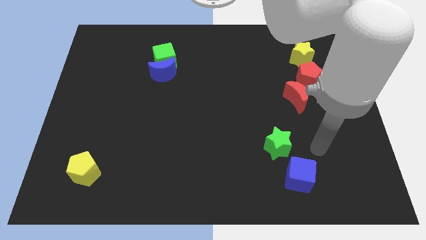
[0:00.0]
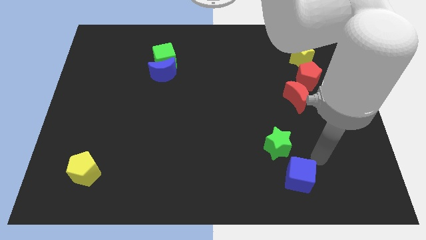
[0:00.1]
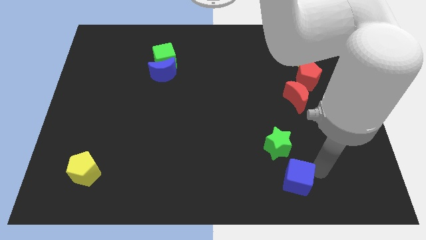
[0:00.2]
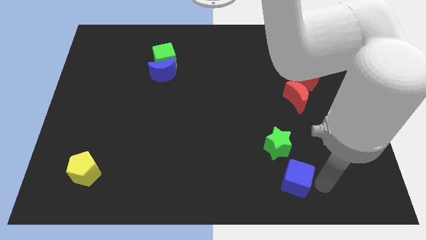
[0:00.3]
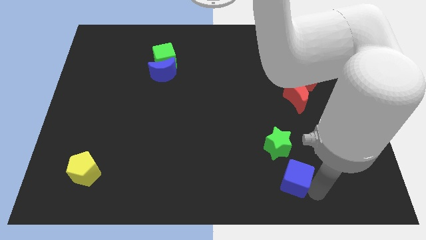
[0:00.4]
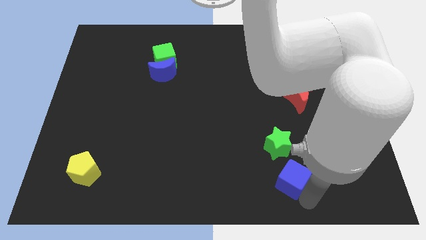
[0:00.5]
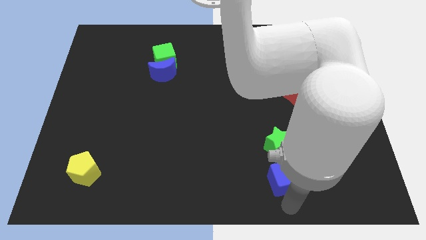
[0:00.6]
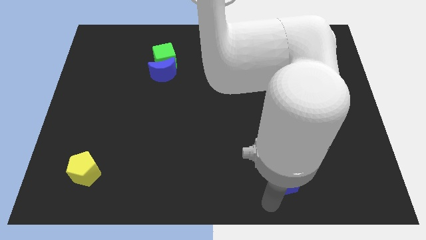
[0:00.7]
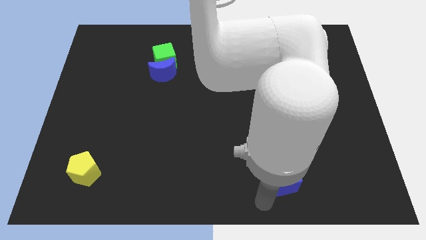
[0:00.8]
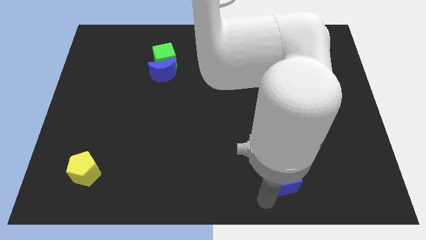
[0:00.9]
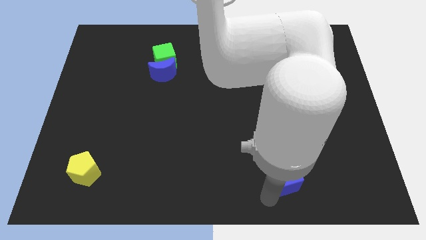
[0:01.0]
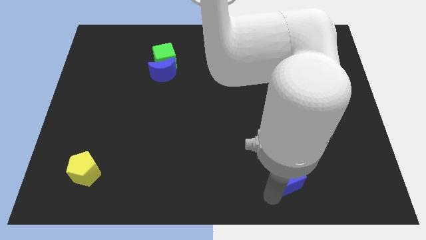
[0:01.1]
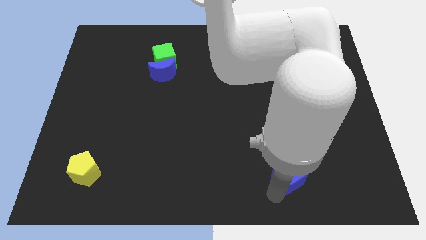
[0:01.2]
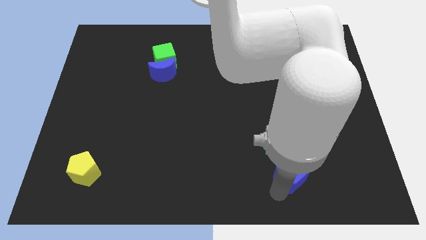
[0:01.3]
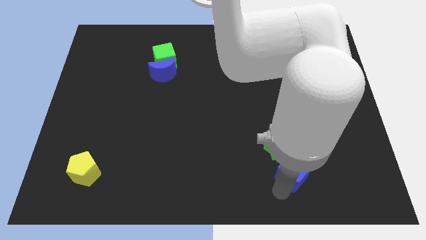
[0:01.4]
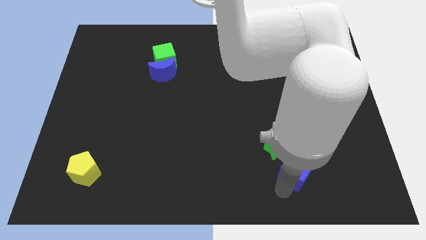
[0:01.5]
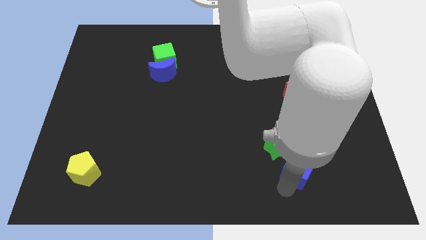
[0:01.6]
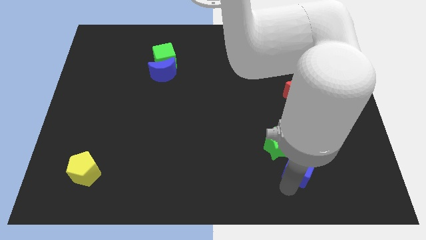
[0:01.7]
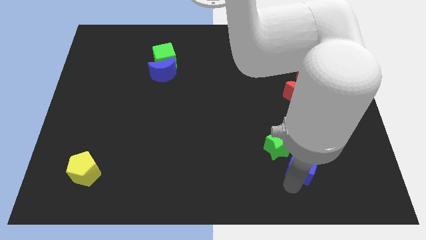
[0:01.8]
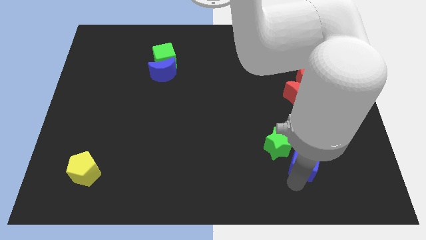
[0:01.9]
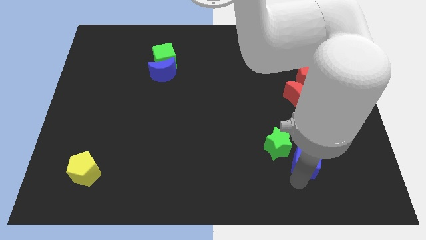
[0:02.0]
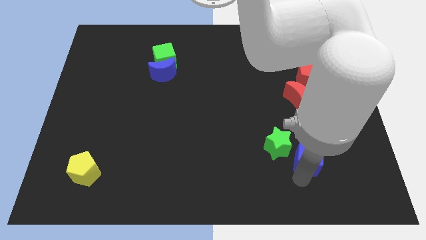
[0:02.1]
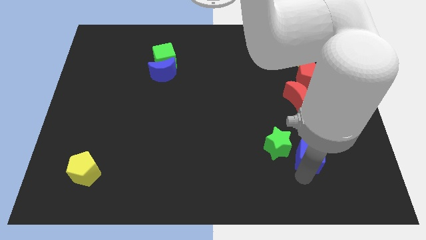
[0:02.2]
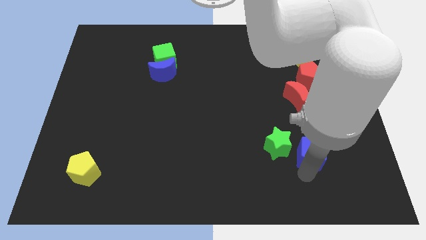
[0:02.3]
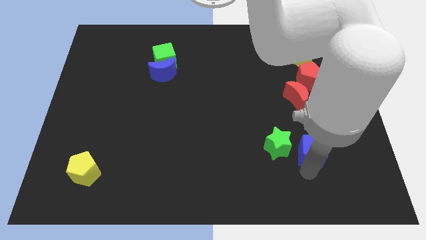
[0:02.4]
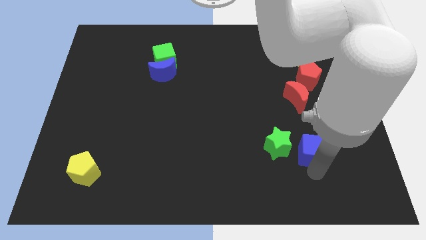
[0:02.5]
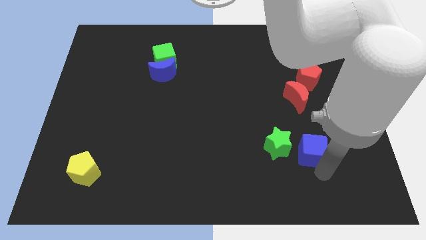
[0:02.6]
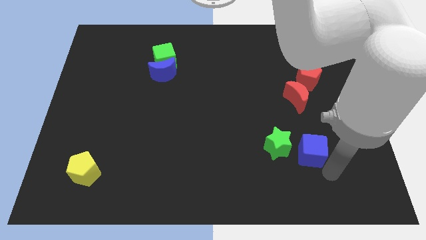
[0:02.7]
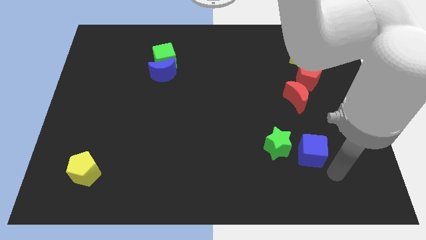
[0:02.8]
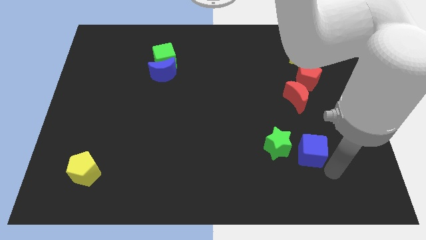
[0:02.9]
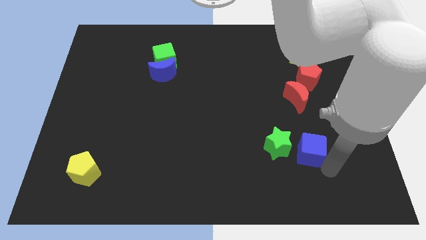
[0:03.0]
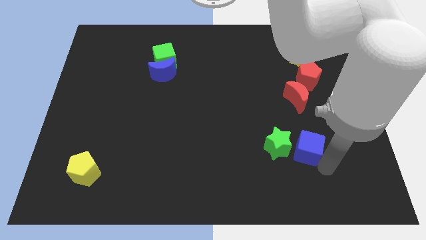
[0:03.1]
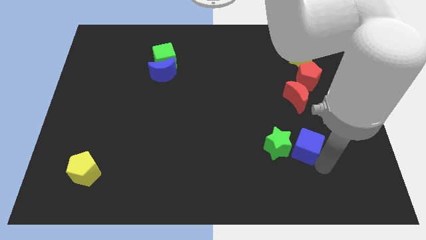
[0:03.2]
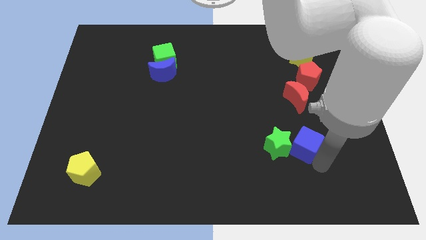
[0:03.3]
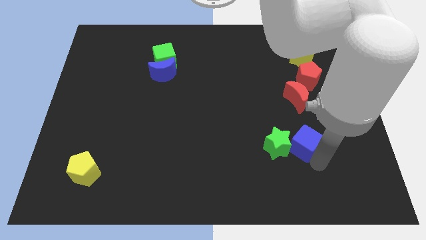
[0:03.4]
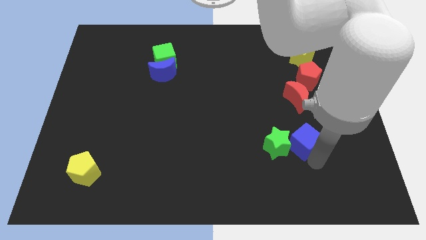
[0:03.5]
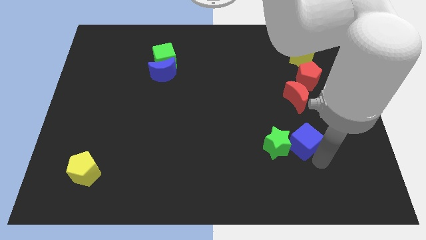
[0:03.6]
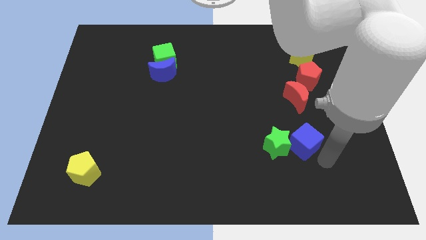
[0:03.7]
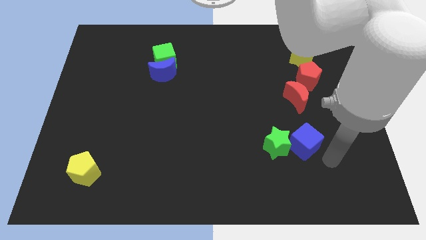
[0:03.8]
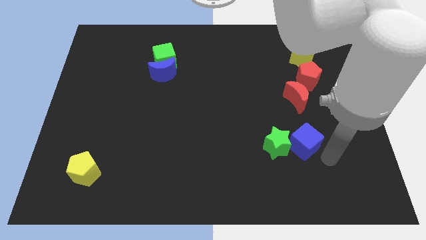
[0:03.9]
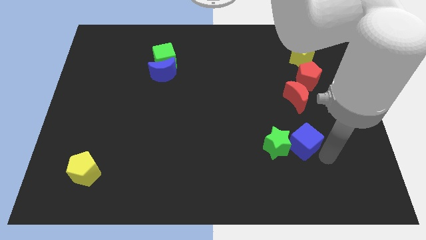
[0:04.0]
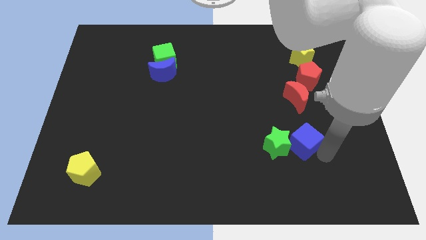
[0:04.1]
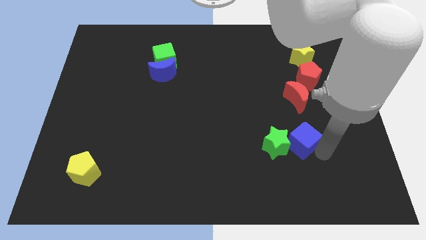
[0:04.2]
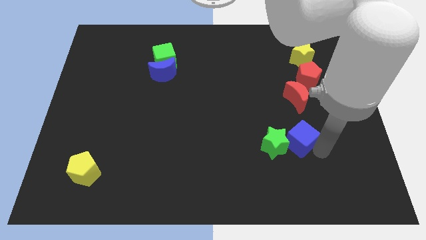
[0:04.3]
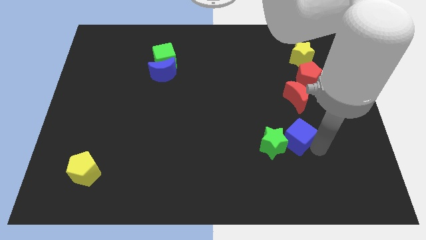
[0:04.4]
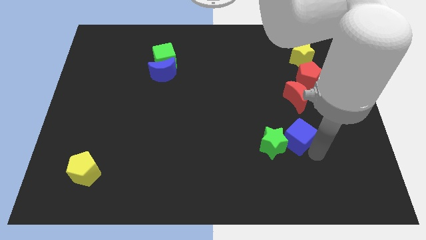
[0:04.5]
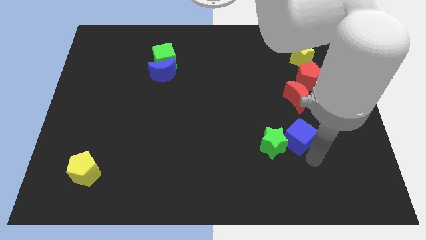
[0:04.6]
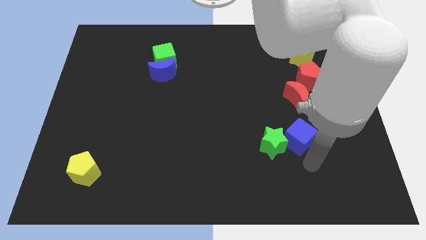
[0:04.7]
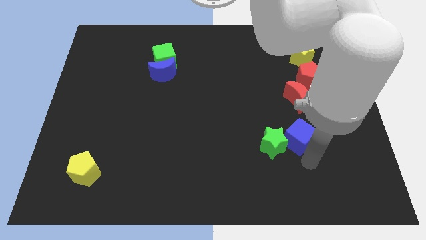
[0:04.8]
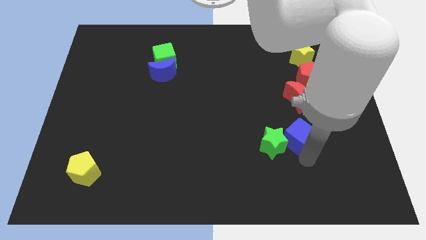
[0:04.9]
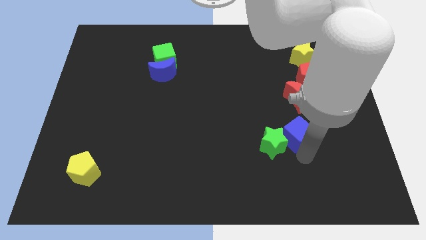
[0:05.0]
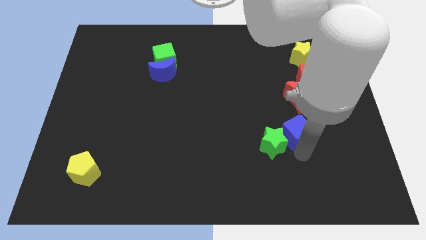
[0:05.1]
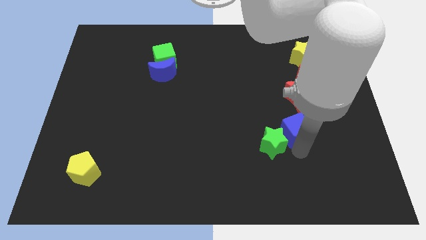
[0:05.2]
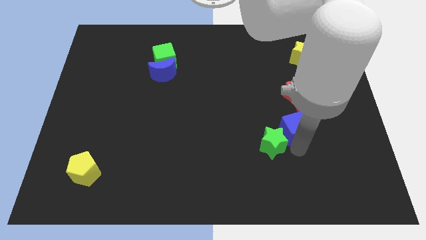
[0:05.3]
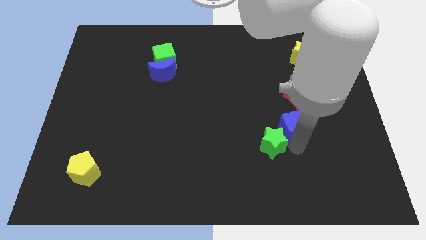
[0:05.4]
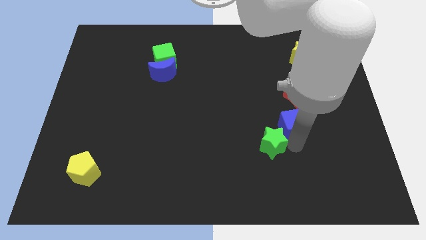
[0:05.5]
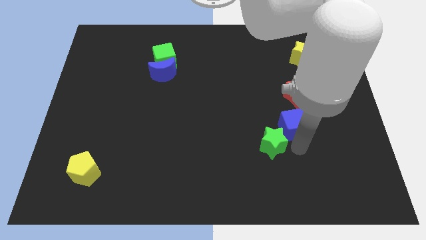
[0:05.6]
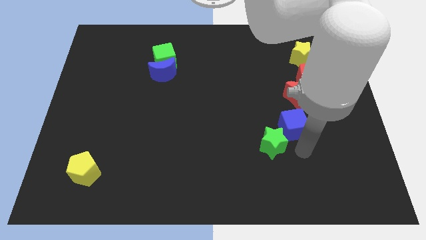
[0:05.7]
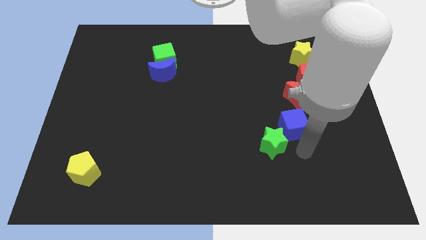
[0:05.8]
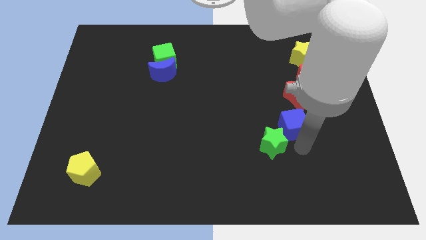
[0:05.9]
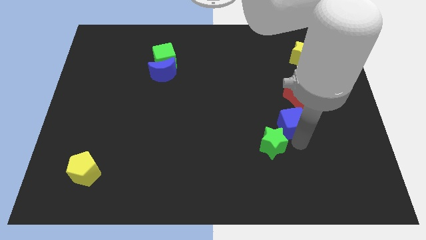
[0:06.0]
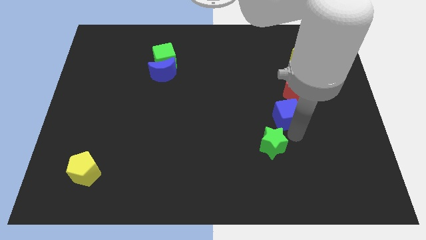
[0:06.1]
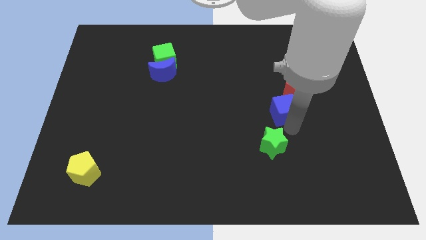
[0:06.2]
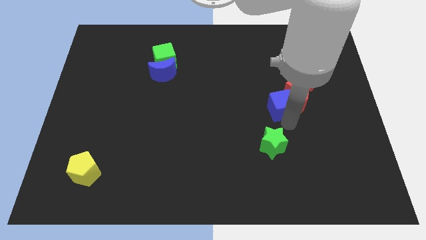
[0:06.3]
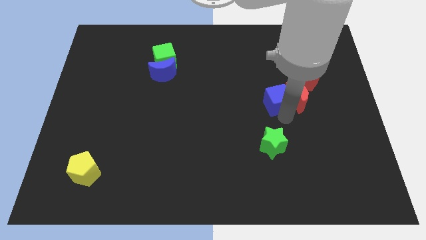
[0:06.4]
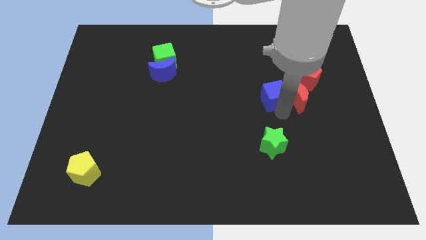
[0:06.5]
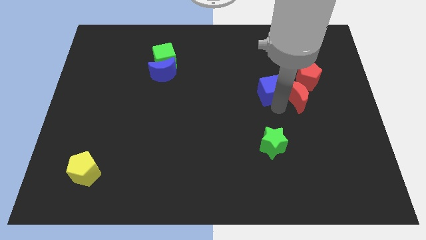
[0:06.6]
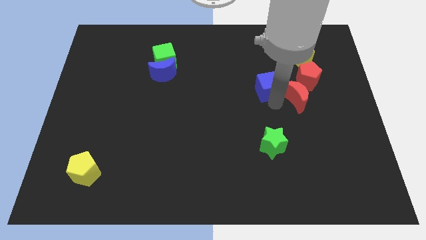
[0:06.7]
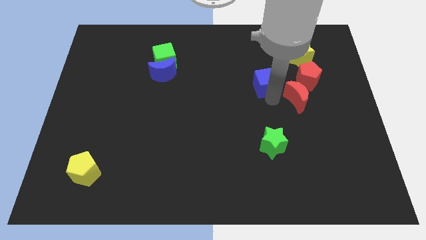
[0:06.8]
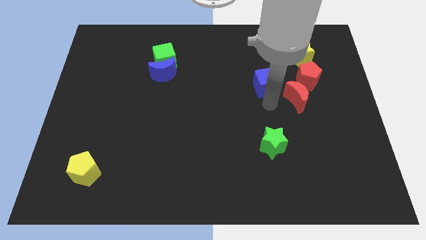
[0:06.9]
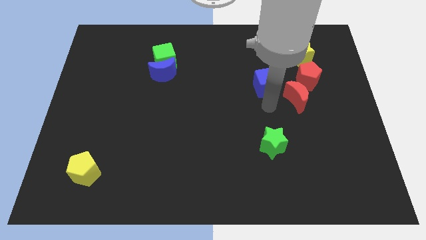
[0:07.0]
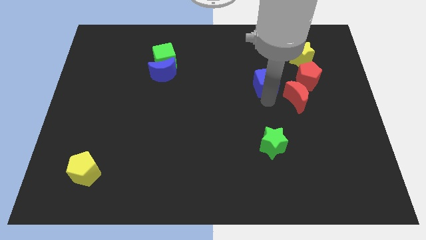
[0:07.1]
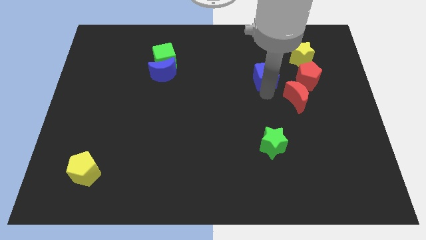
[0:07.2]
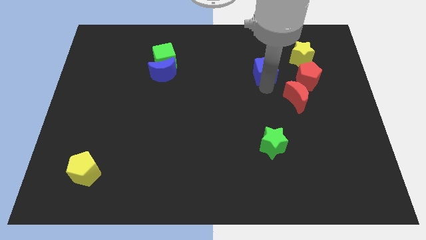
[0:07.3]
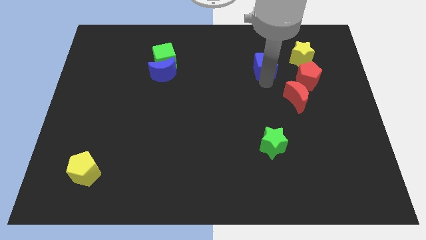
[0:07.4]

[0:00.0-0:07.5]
move the blue cube to the left of the yellow star
